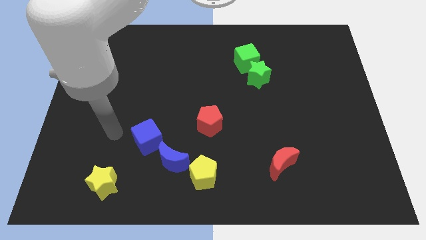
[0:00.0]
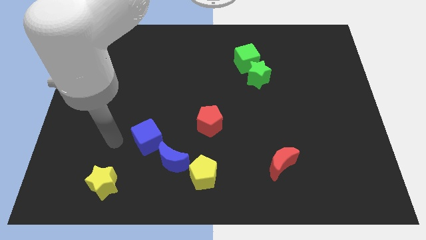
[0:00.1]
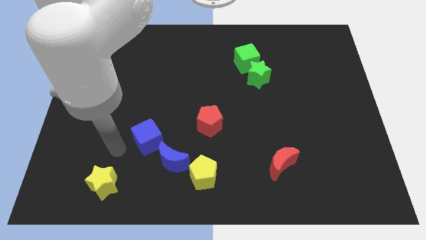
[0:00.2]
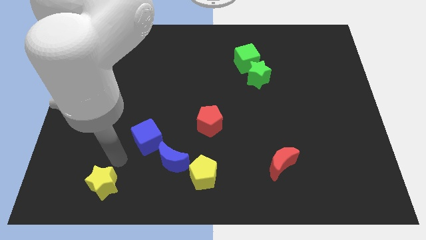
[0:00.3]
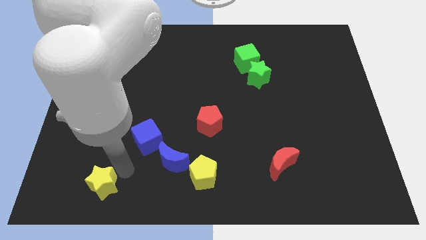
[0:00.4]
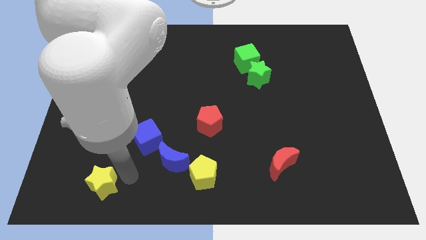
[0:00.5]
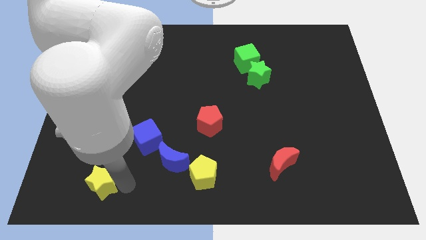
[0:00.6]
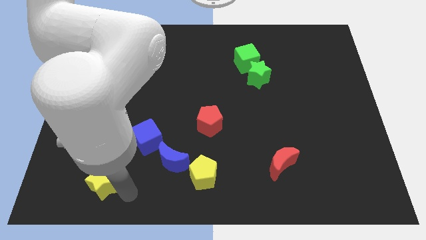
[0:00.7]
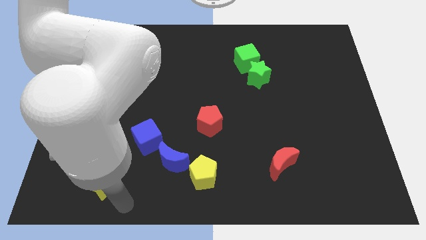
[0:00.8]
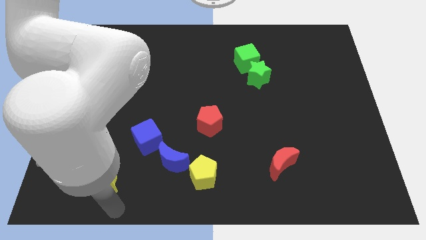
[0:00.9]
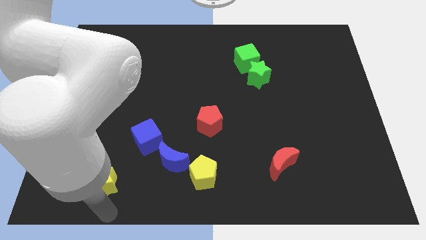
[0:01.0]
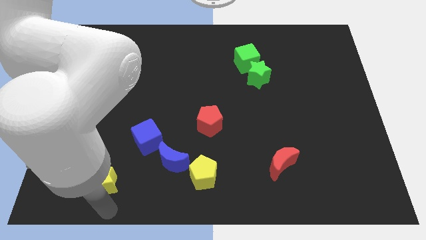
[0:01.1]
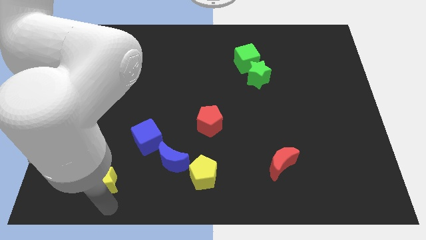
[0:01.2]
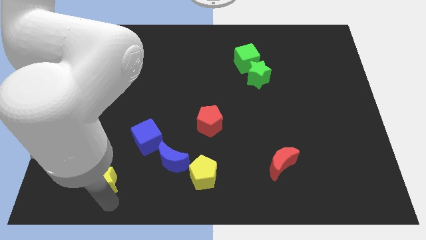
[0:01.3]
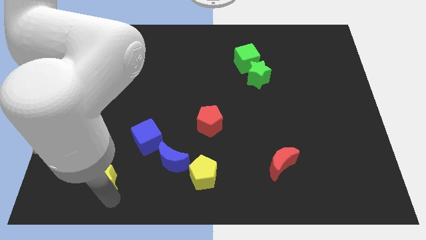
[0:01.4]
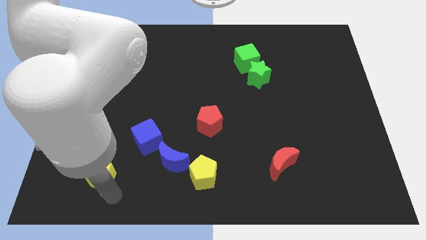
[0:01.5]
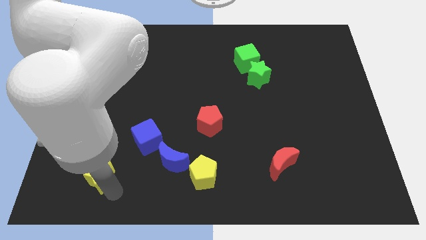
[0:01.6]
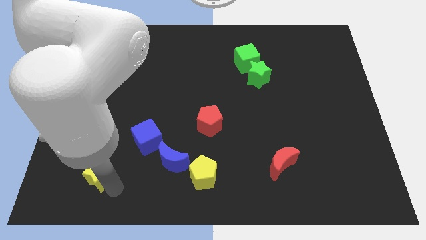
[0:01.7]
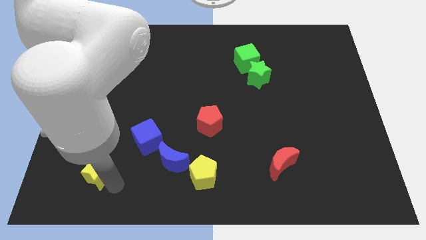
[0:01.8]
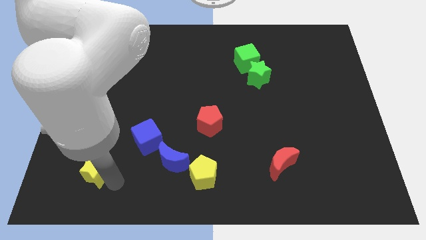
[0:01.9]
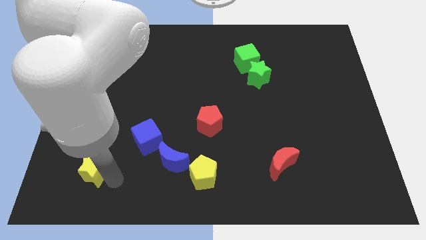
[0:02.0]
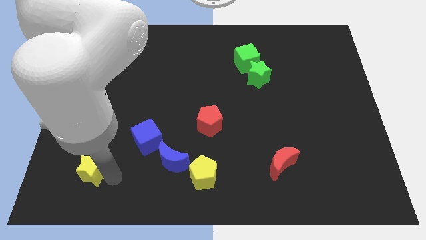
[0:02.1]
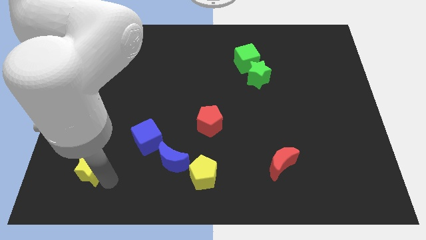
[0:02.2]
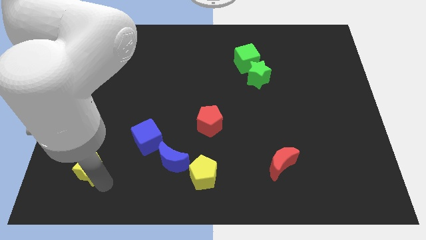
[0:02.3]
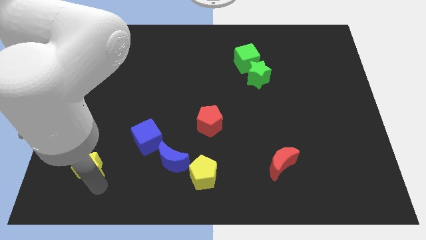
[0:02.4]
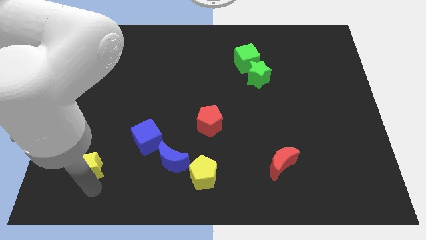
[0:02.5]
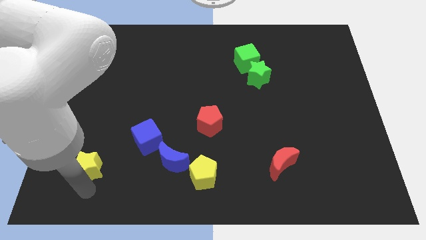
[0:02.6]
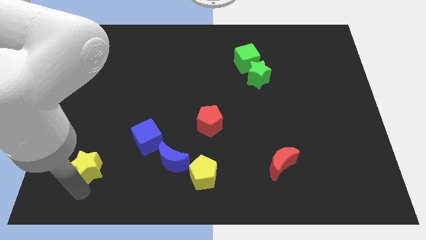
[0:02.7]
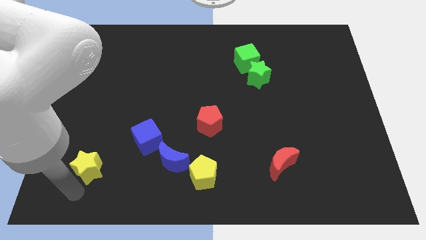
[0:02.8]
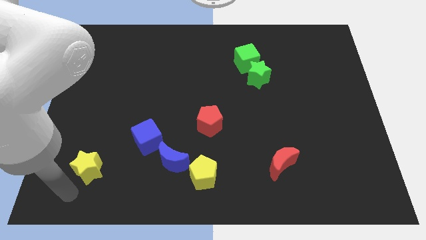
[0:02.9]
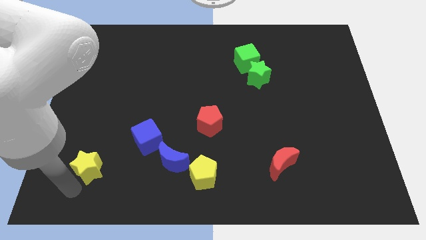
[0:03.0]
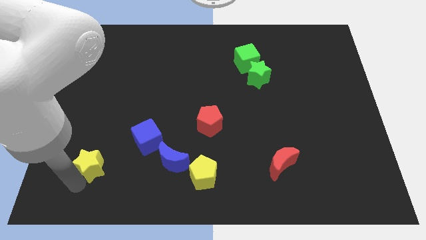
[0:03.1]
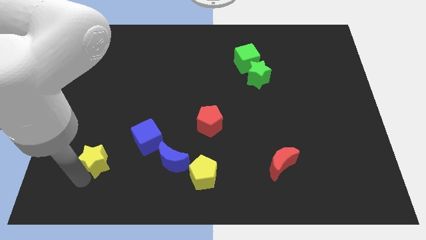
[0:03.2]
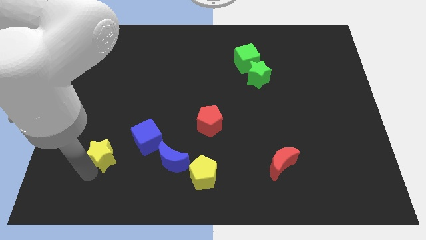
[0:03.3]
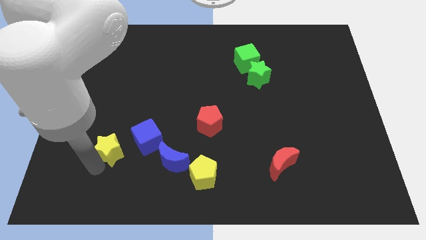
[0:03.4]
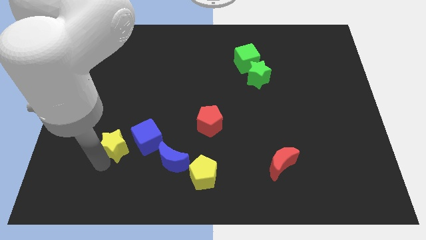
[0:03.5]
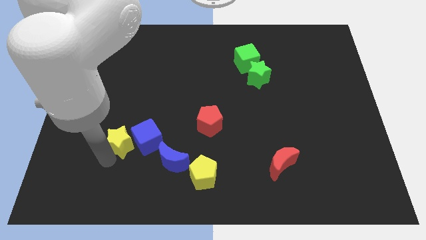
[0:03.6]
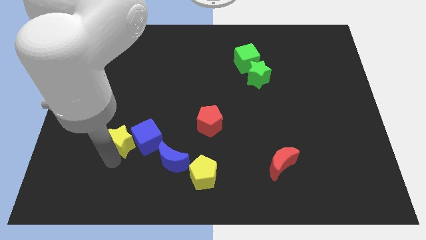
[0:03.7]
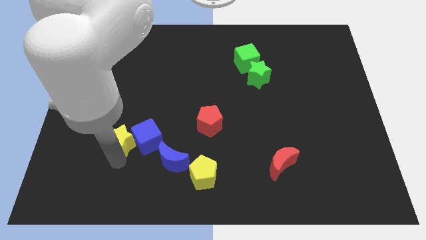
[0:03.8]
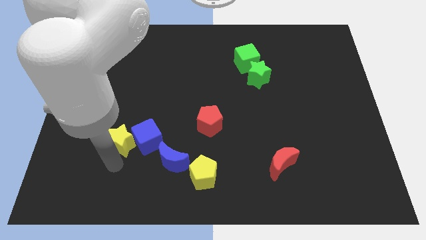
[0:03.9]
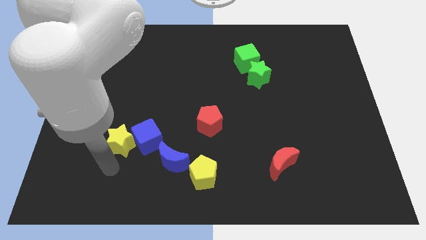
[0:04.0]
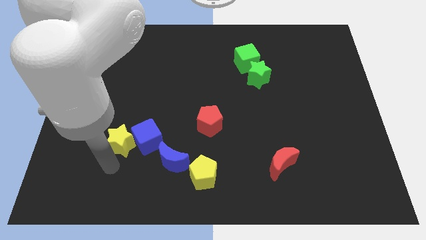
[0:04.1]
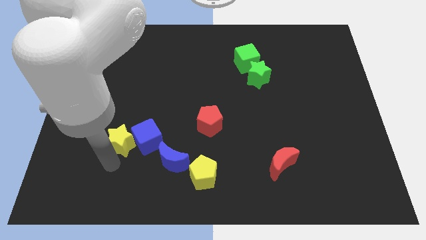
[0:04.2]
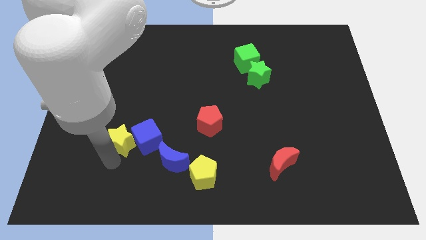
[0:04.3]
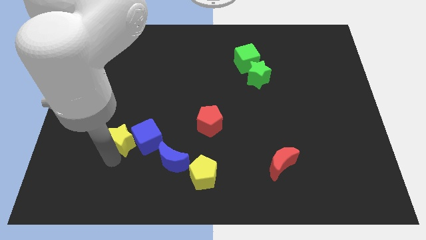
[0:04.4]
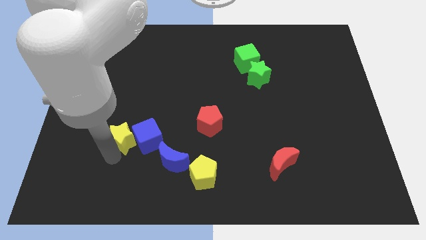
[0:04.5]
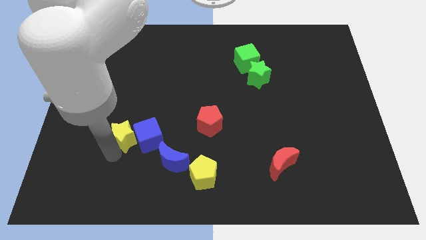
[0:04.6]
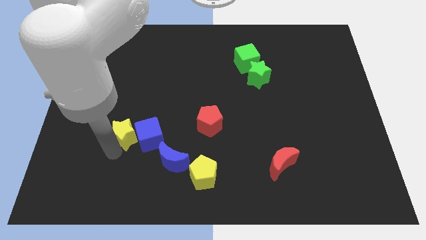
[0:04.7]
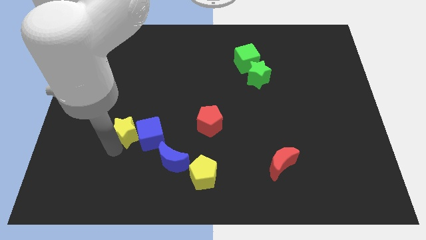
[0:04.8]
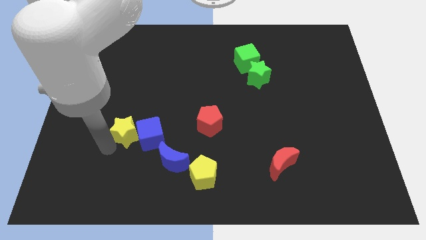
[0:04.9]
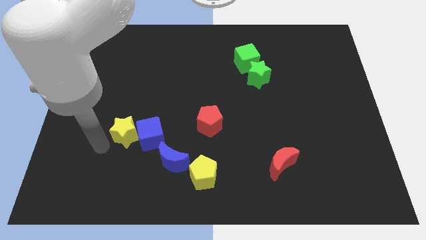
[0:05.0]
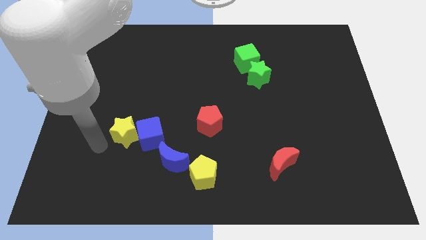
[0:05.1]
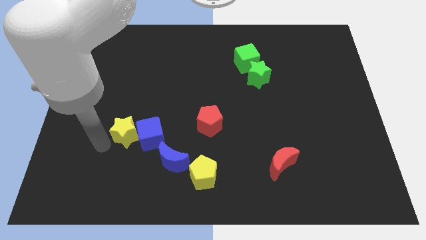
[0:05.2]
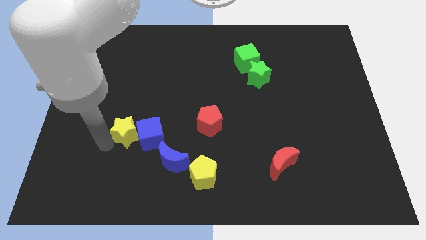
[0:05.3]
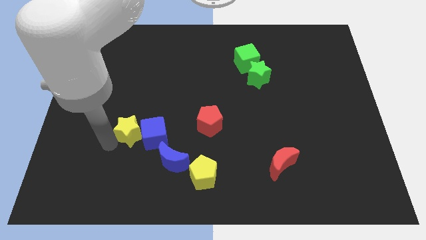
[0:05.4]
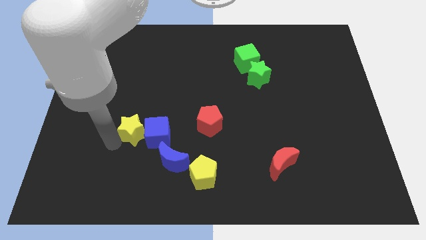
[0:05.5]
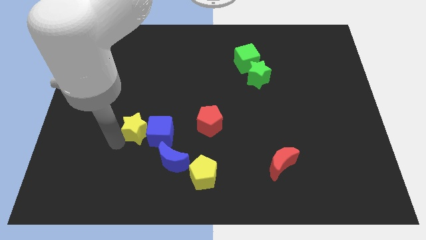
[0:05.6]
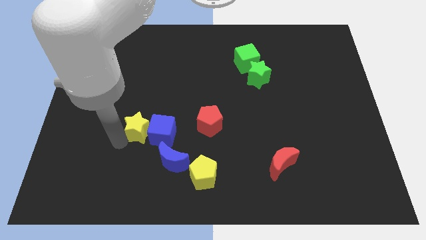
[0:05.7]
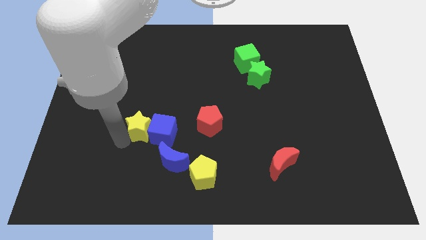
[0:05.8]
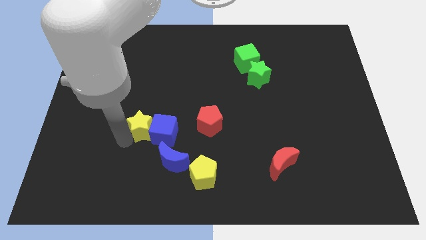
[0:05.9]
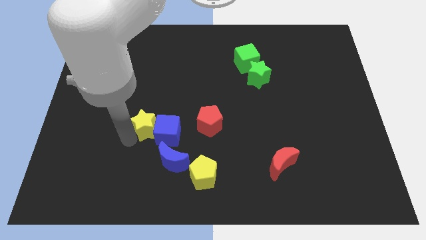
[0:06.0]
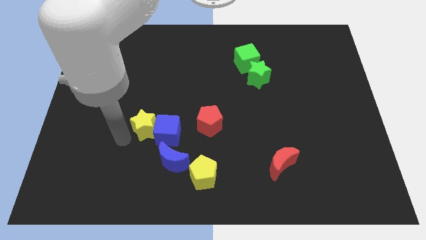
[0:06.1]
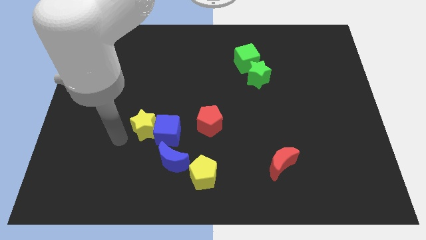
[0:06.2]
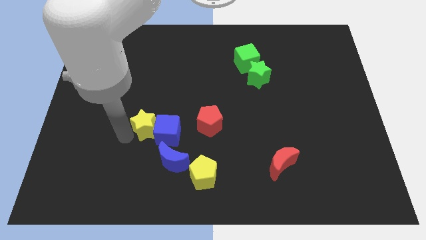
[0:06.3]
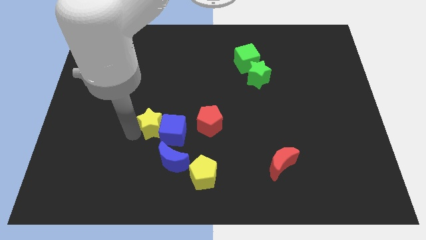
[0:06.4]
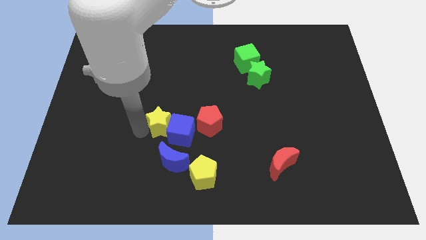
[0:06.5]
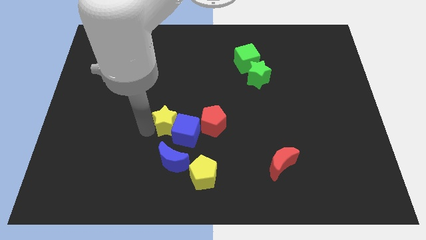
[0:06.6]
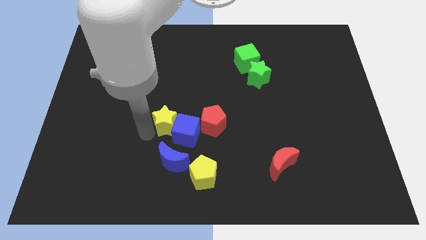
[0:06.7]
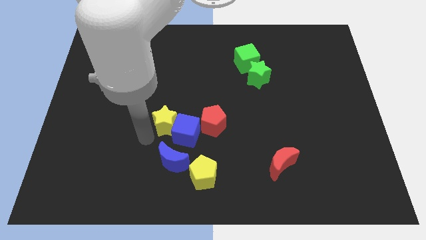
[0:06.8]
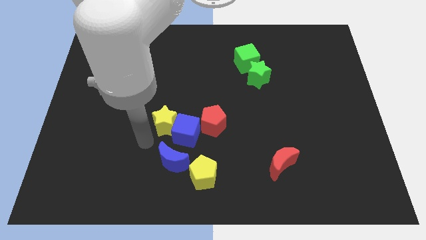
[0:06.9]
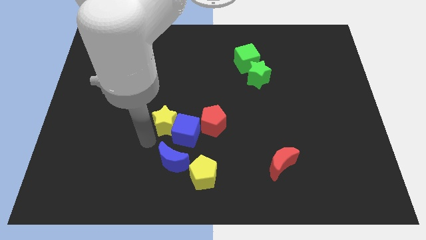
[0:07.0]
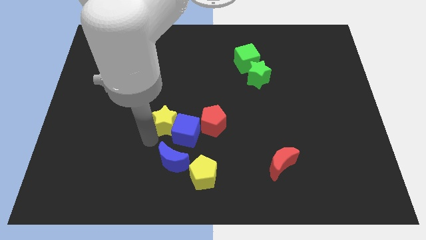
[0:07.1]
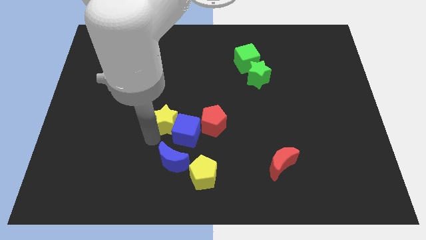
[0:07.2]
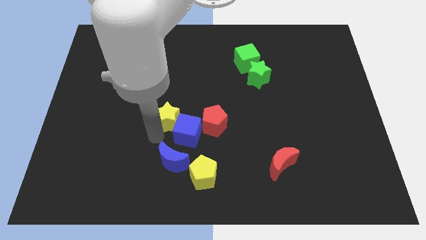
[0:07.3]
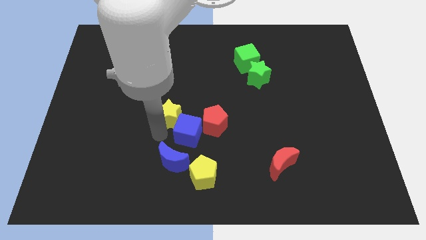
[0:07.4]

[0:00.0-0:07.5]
push the yellow star up and then to the right

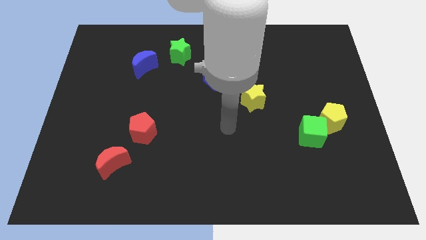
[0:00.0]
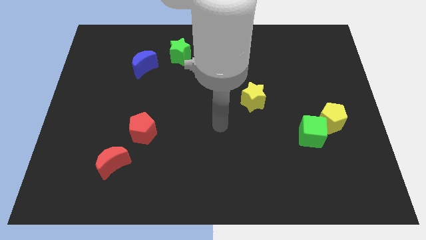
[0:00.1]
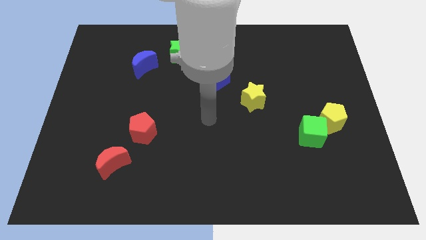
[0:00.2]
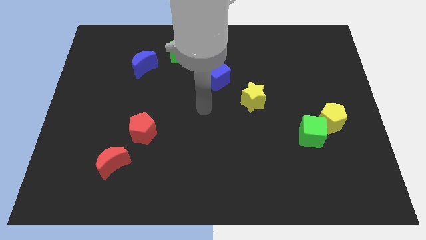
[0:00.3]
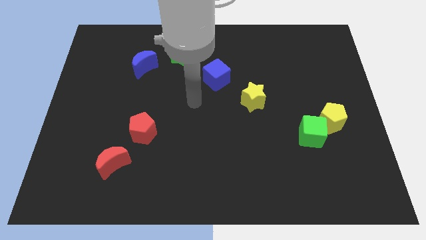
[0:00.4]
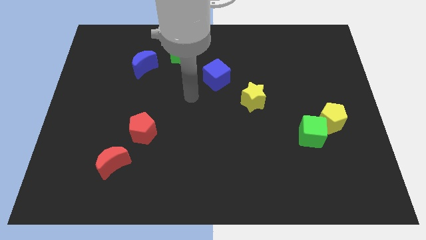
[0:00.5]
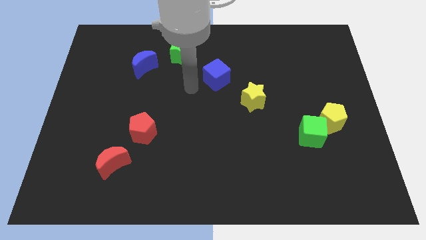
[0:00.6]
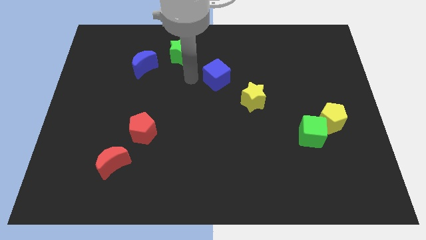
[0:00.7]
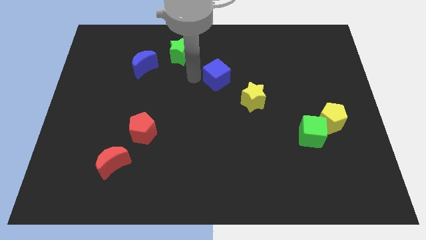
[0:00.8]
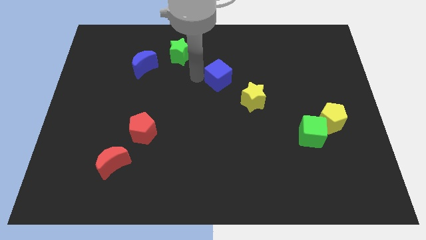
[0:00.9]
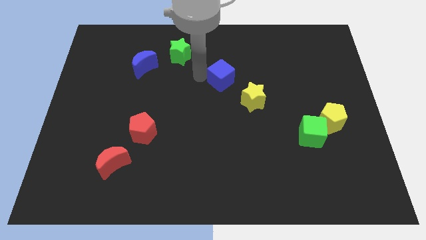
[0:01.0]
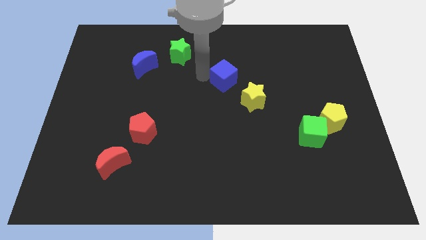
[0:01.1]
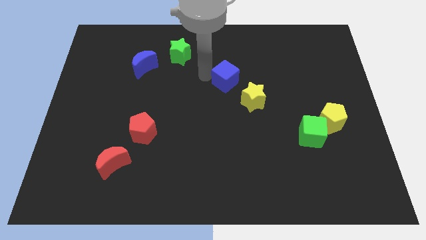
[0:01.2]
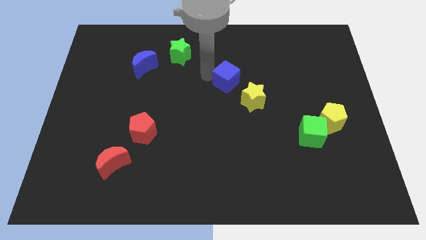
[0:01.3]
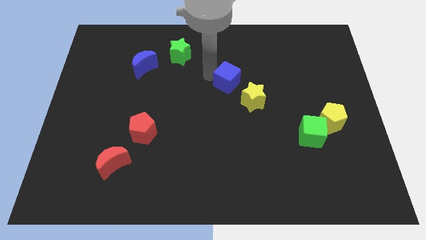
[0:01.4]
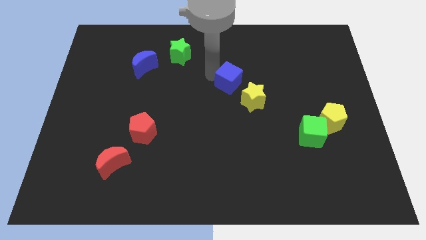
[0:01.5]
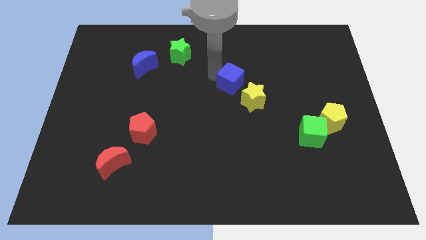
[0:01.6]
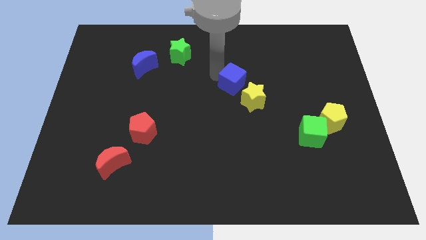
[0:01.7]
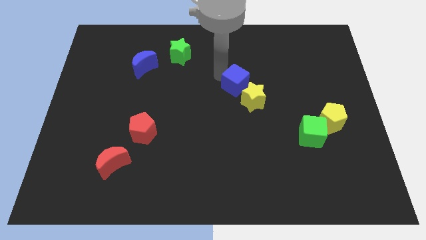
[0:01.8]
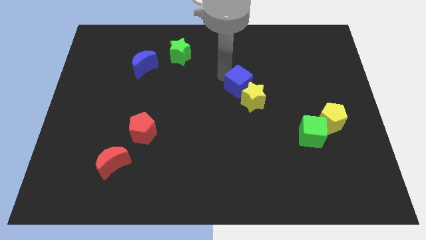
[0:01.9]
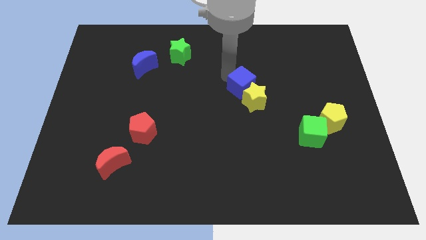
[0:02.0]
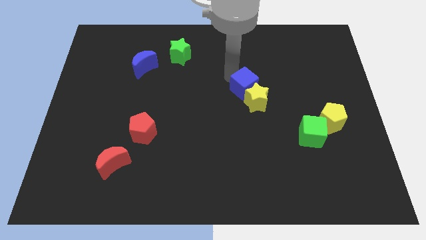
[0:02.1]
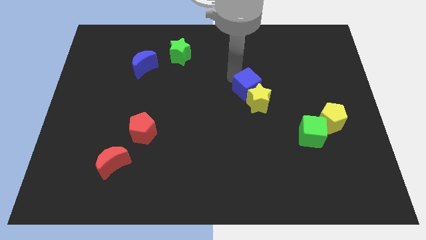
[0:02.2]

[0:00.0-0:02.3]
slightly slide the blue cube right
